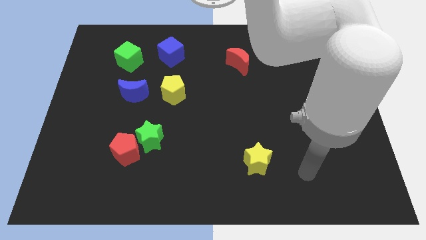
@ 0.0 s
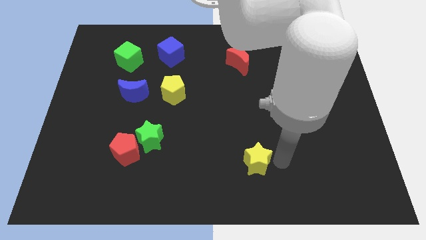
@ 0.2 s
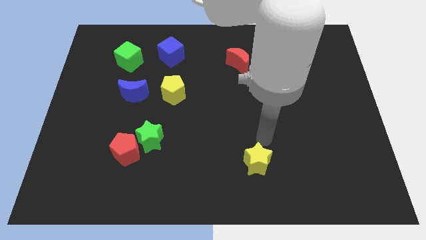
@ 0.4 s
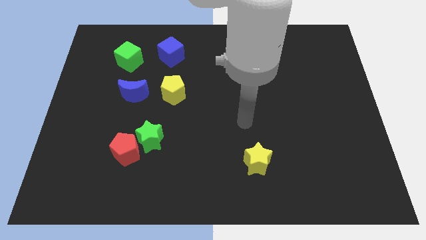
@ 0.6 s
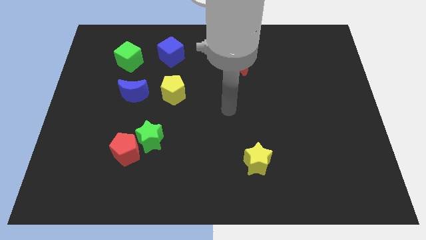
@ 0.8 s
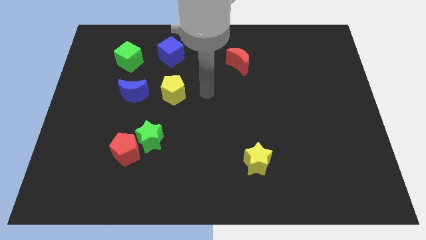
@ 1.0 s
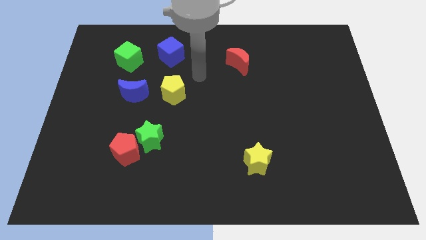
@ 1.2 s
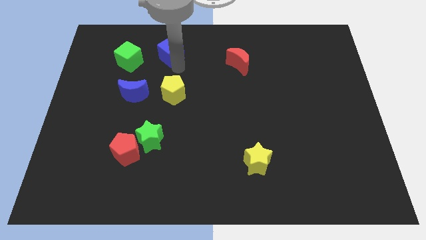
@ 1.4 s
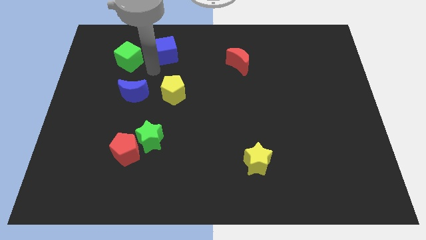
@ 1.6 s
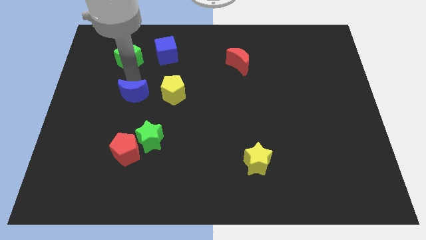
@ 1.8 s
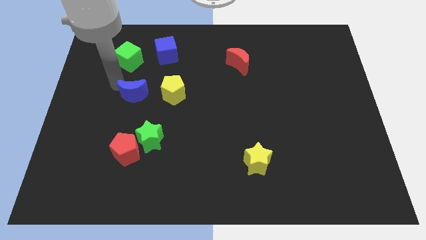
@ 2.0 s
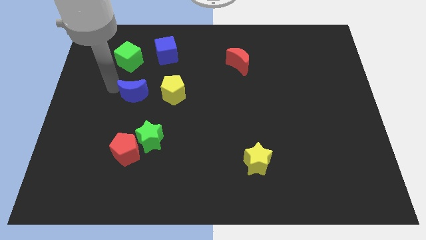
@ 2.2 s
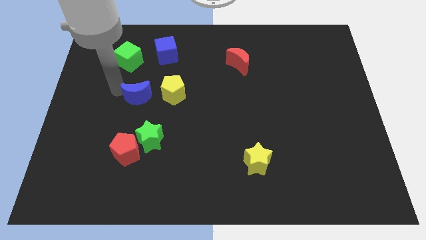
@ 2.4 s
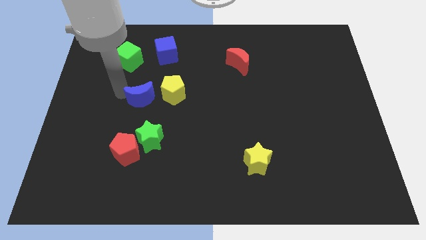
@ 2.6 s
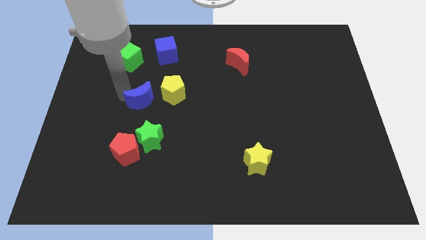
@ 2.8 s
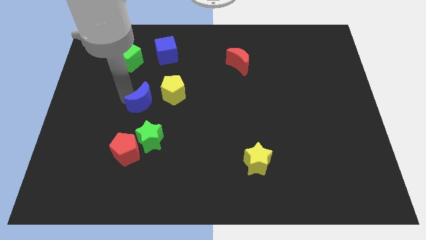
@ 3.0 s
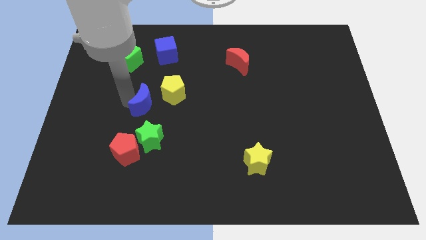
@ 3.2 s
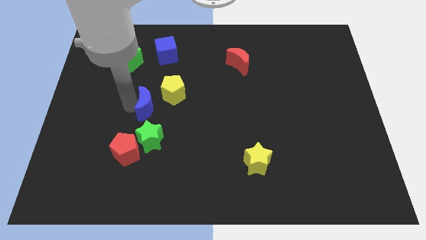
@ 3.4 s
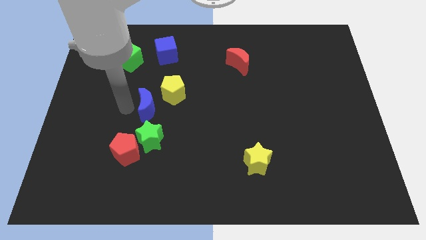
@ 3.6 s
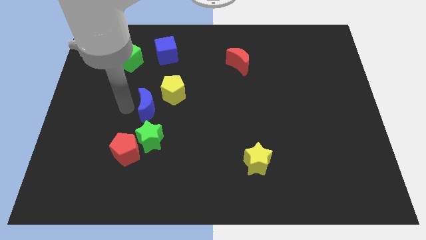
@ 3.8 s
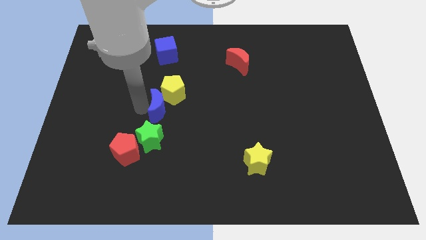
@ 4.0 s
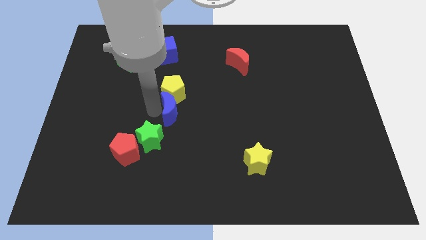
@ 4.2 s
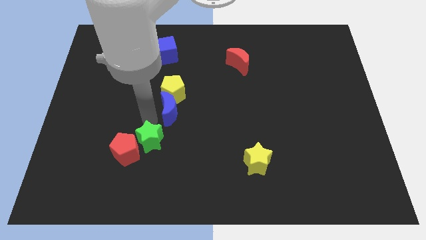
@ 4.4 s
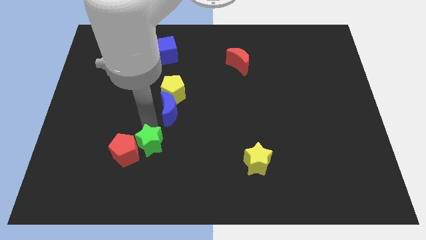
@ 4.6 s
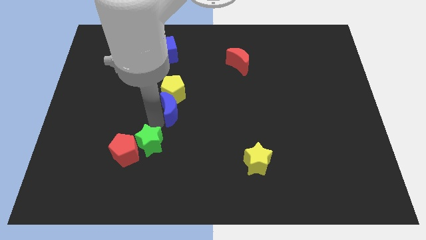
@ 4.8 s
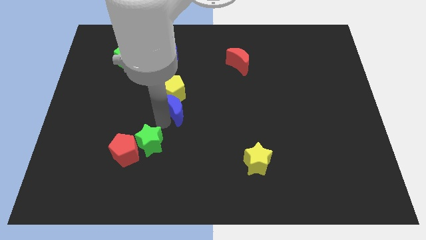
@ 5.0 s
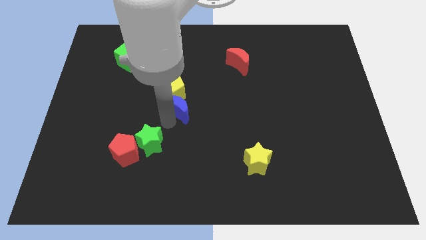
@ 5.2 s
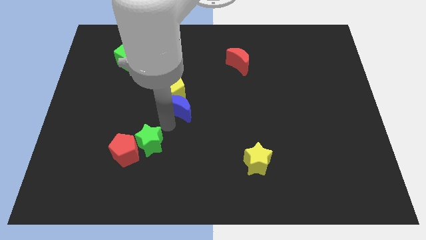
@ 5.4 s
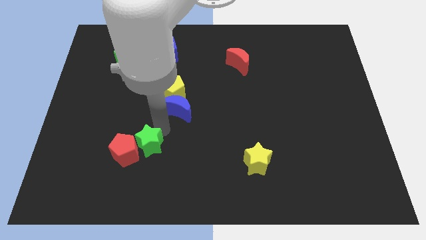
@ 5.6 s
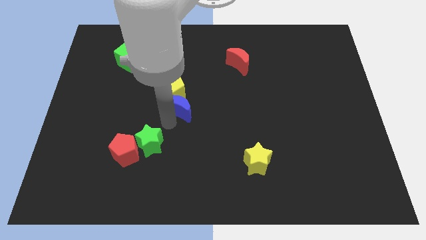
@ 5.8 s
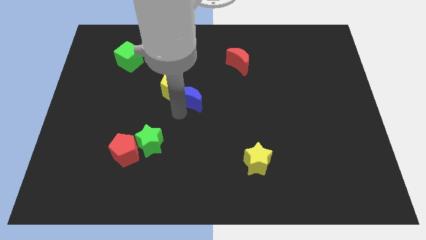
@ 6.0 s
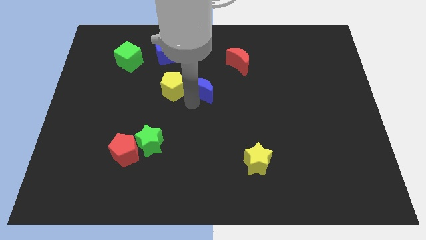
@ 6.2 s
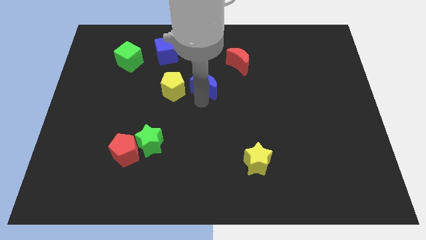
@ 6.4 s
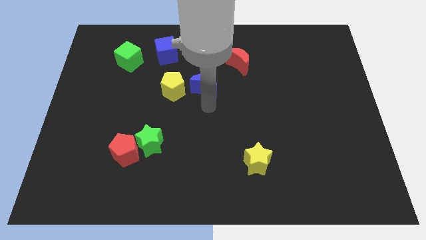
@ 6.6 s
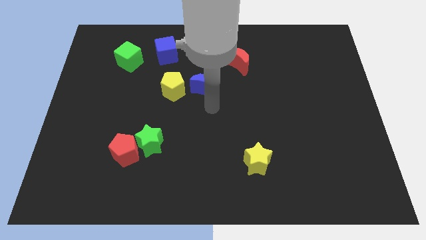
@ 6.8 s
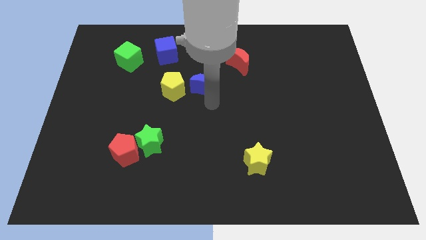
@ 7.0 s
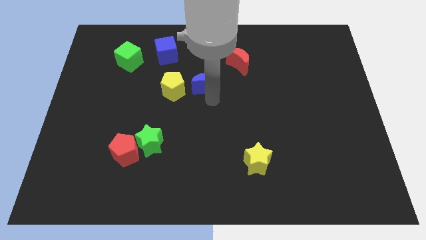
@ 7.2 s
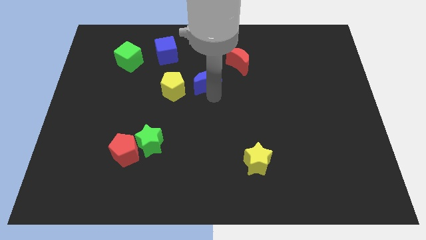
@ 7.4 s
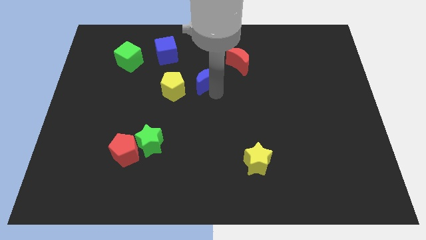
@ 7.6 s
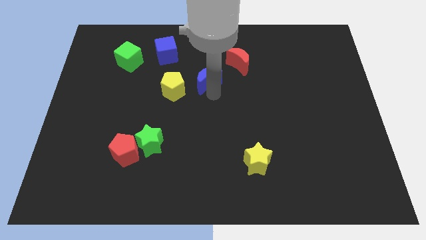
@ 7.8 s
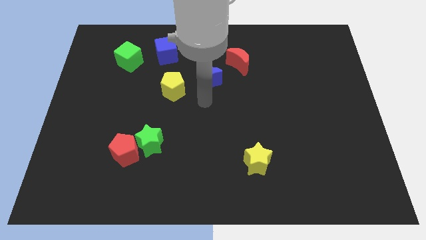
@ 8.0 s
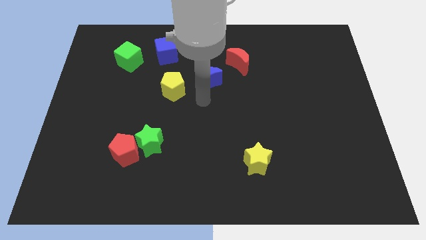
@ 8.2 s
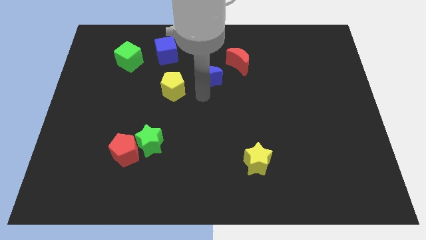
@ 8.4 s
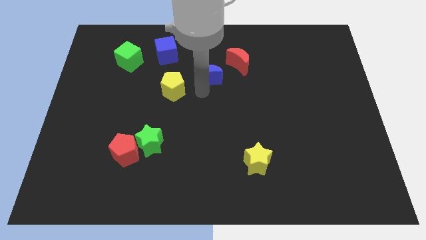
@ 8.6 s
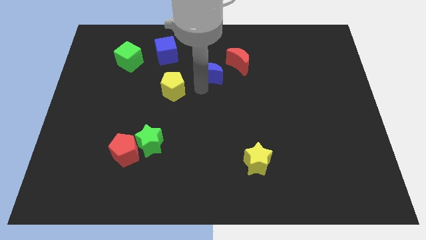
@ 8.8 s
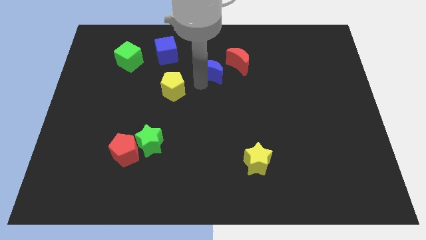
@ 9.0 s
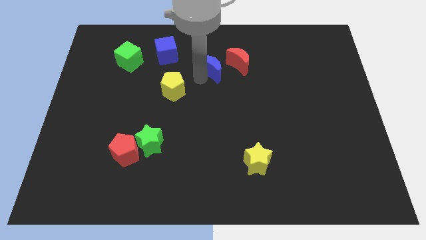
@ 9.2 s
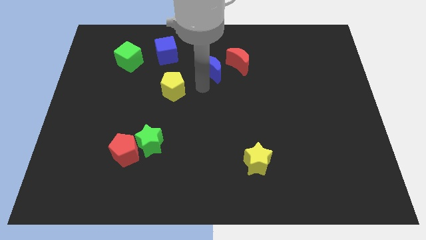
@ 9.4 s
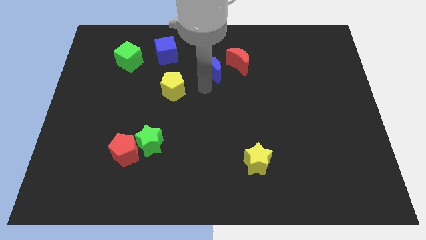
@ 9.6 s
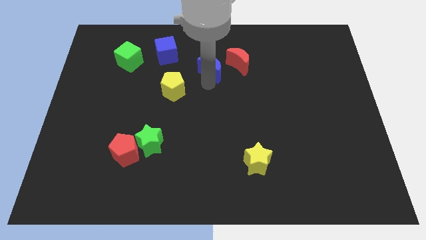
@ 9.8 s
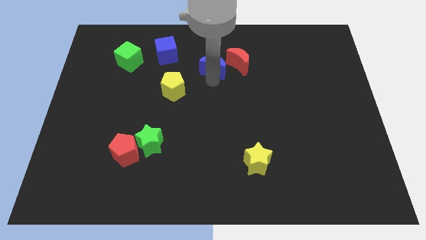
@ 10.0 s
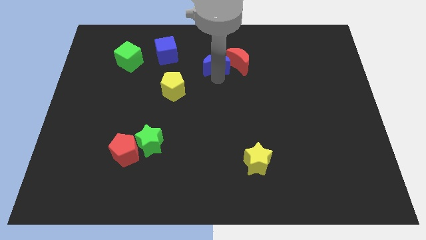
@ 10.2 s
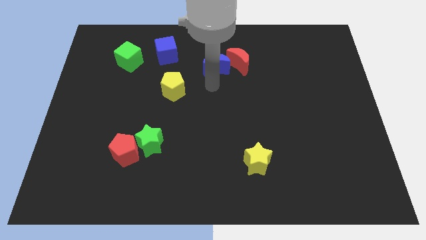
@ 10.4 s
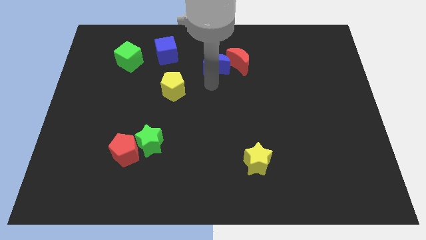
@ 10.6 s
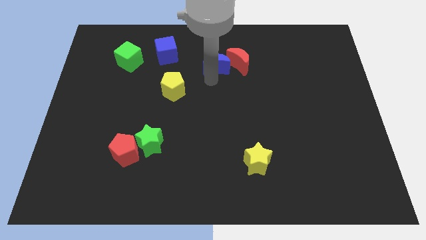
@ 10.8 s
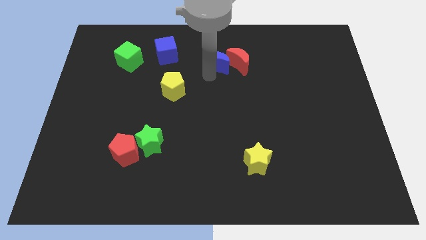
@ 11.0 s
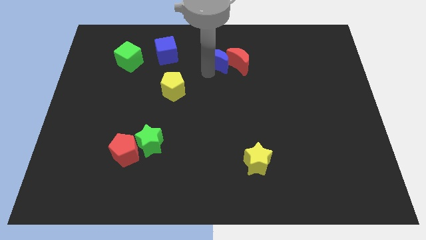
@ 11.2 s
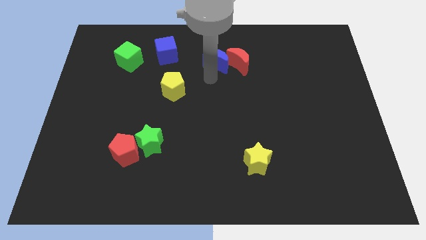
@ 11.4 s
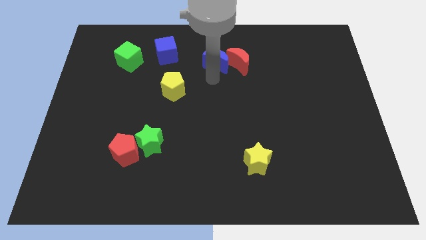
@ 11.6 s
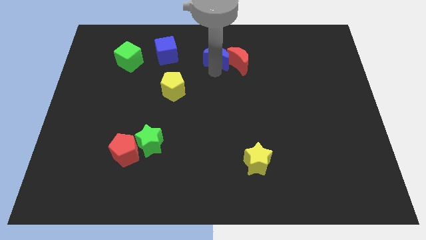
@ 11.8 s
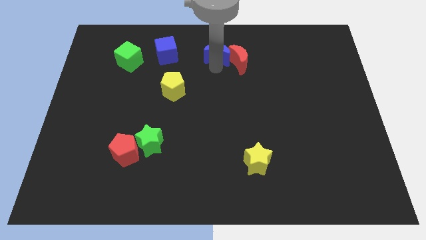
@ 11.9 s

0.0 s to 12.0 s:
push the blue moon to the top

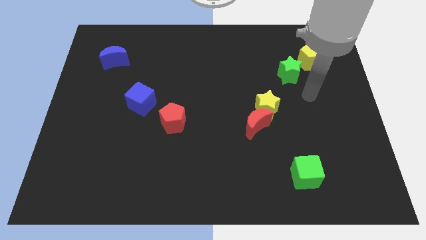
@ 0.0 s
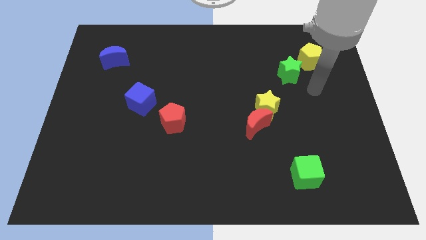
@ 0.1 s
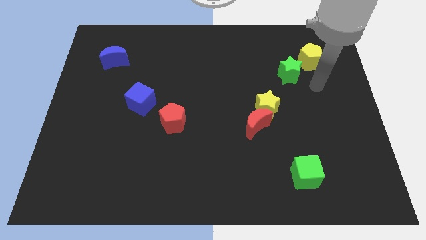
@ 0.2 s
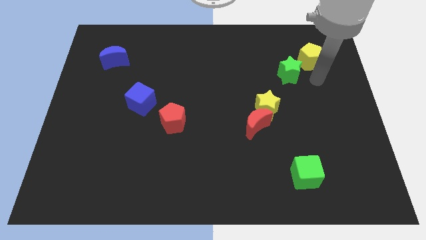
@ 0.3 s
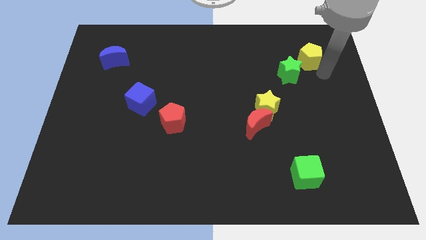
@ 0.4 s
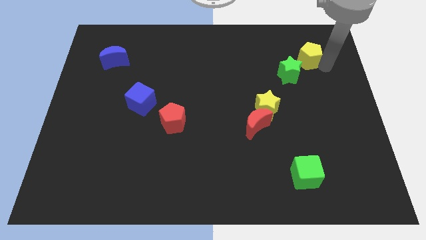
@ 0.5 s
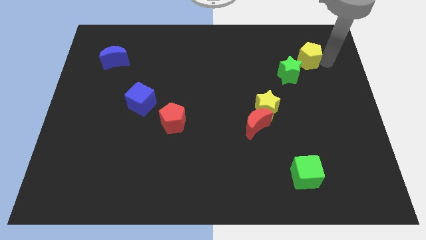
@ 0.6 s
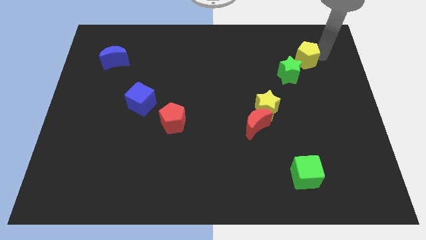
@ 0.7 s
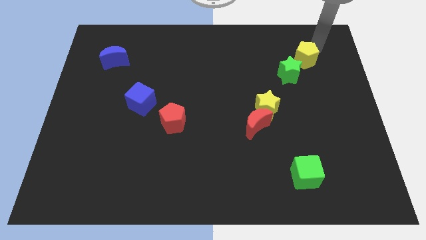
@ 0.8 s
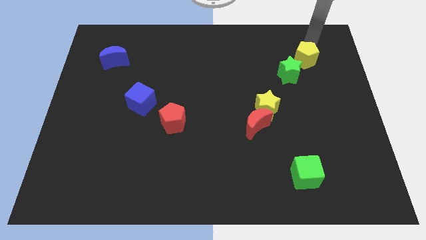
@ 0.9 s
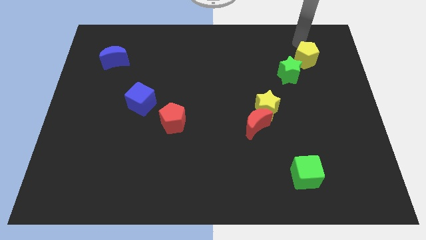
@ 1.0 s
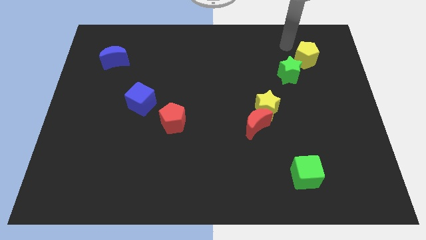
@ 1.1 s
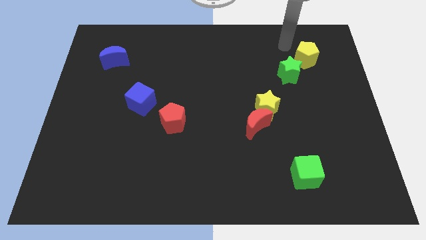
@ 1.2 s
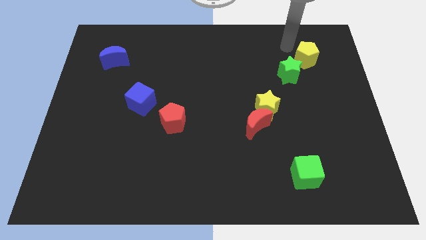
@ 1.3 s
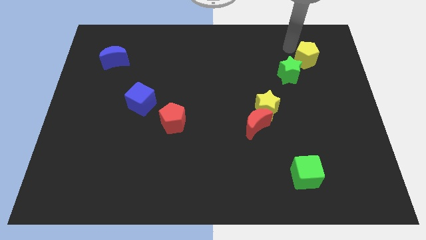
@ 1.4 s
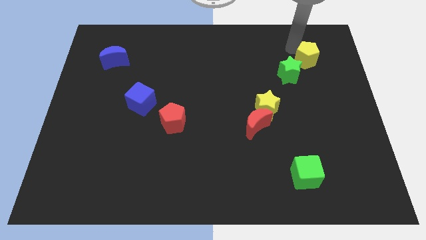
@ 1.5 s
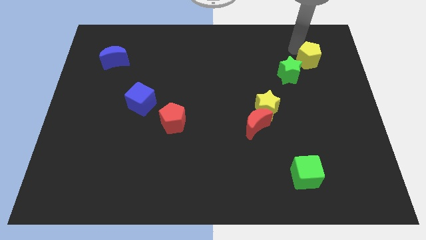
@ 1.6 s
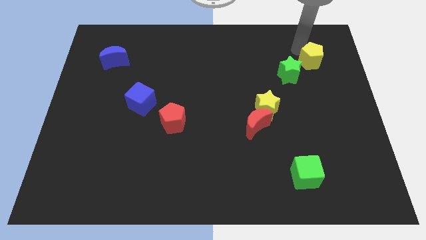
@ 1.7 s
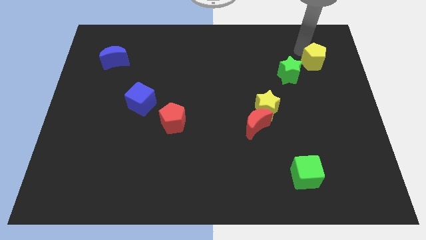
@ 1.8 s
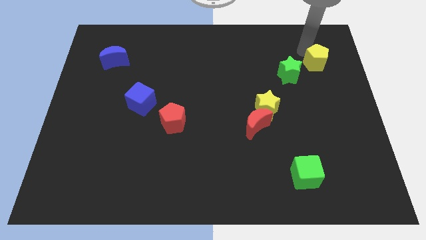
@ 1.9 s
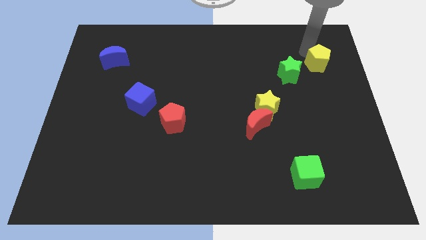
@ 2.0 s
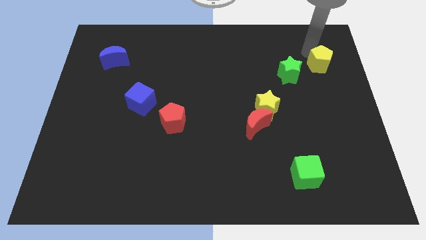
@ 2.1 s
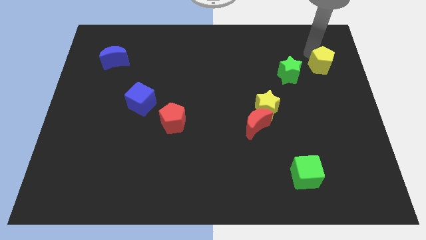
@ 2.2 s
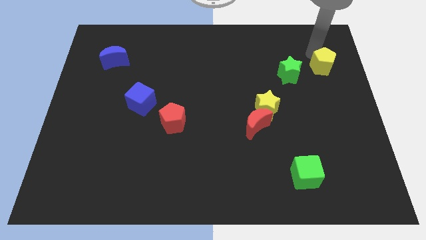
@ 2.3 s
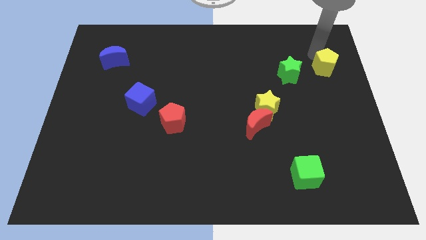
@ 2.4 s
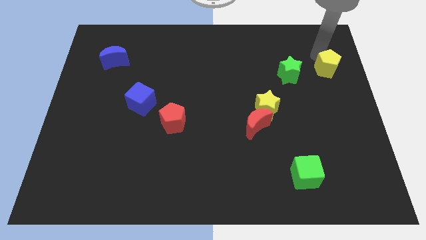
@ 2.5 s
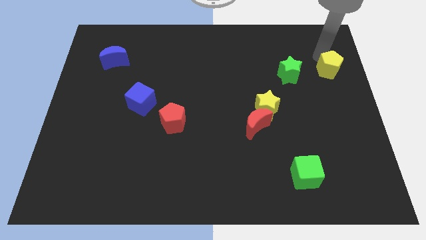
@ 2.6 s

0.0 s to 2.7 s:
move the yellow pentagon to the center right
